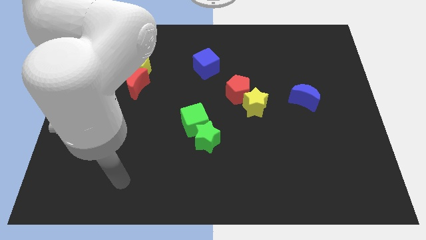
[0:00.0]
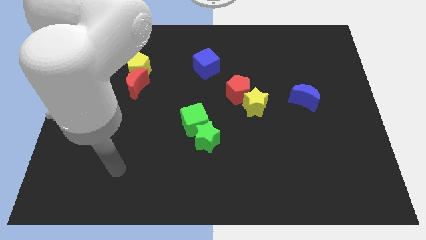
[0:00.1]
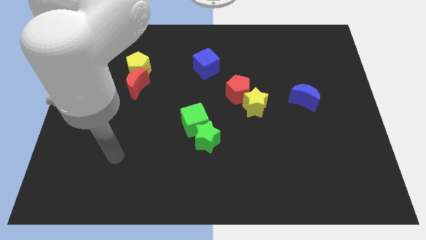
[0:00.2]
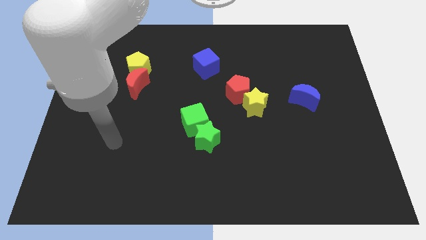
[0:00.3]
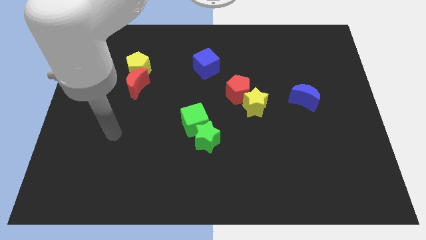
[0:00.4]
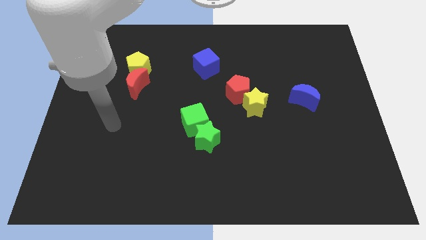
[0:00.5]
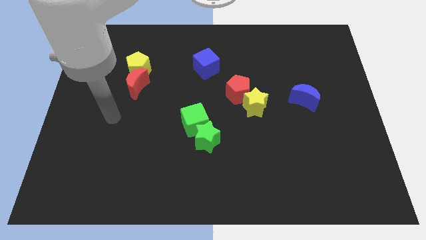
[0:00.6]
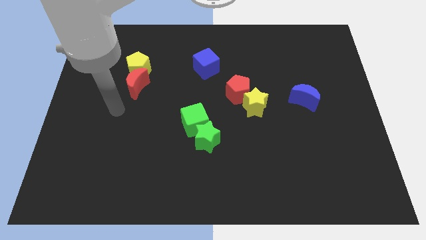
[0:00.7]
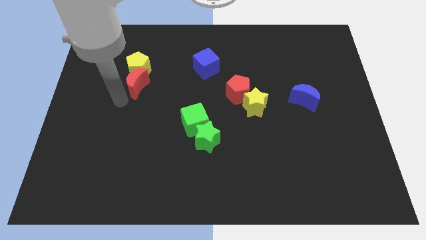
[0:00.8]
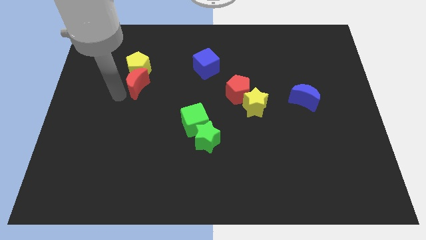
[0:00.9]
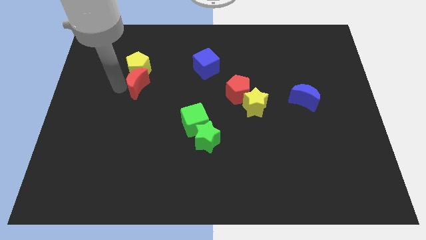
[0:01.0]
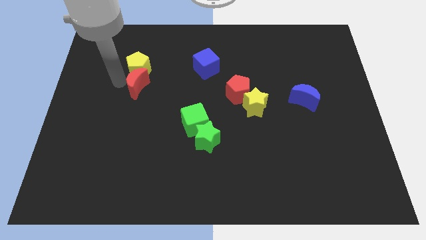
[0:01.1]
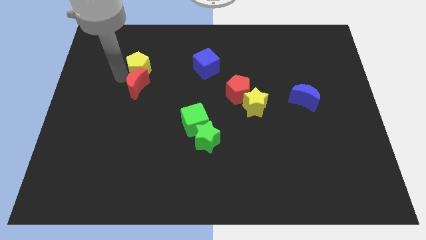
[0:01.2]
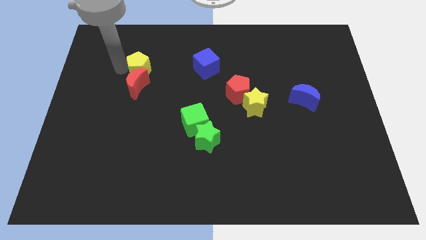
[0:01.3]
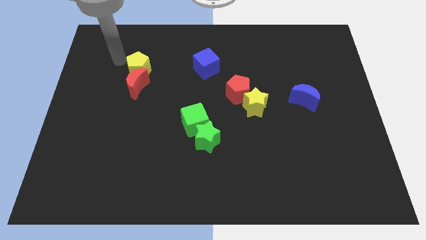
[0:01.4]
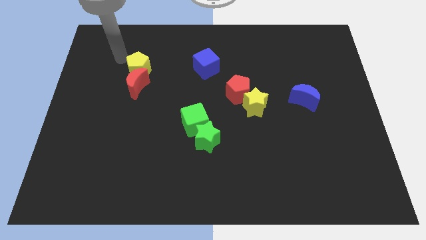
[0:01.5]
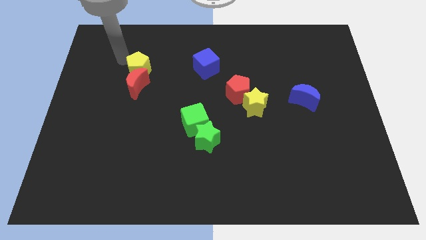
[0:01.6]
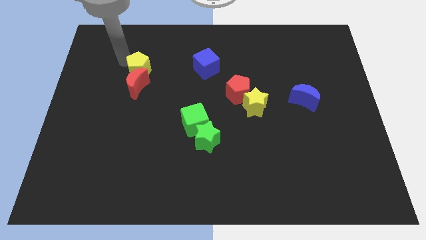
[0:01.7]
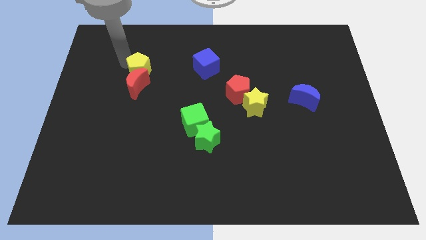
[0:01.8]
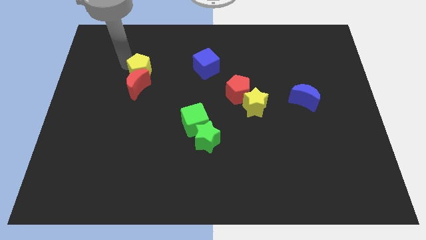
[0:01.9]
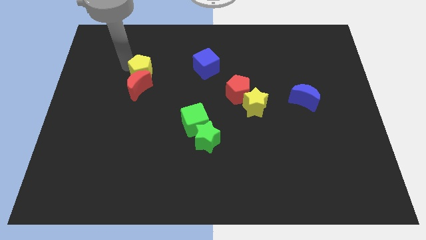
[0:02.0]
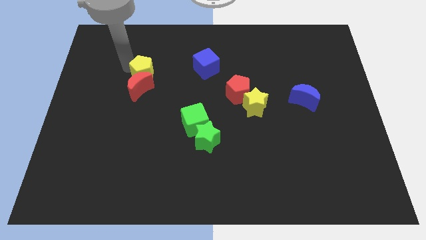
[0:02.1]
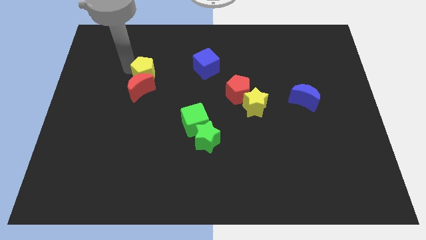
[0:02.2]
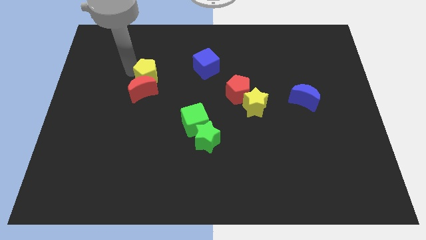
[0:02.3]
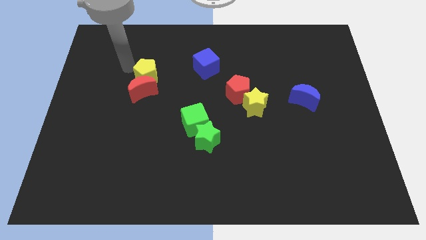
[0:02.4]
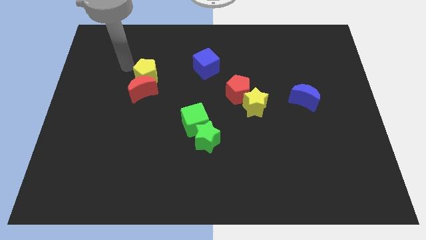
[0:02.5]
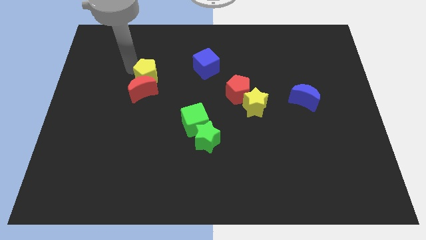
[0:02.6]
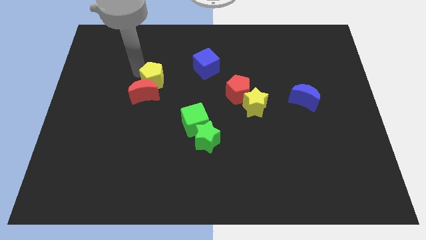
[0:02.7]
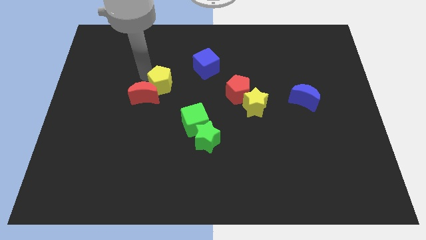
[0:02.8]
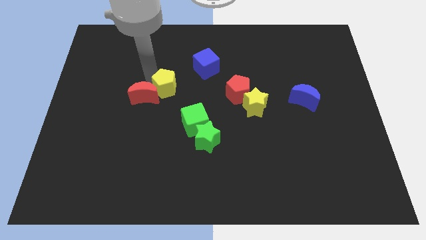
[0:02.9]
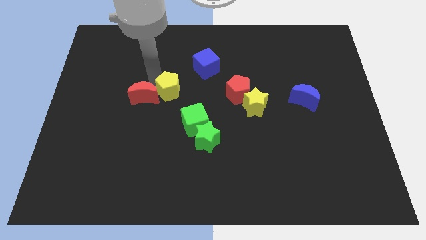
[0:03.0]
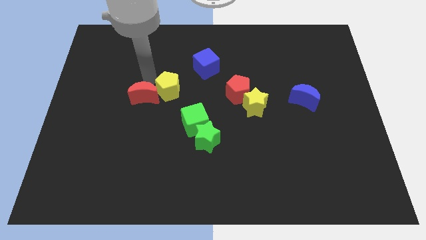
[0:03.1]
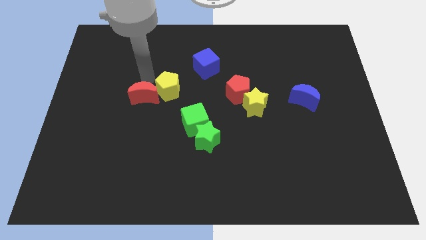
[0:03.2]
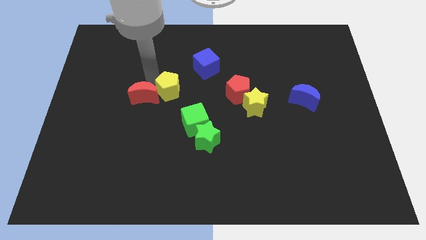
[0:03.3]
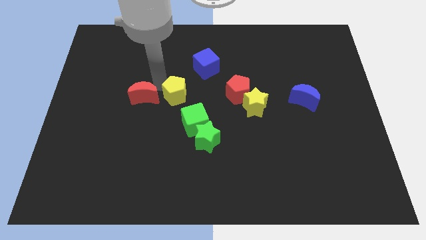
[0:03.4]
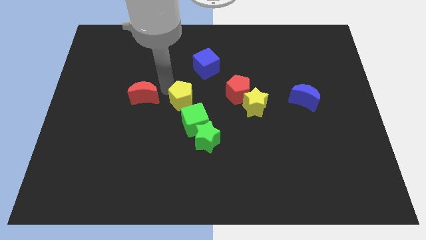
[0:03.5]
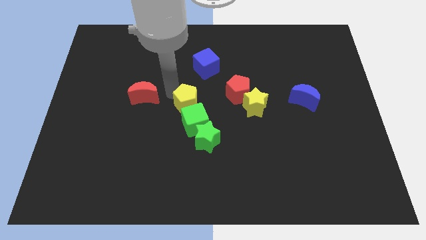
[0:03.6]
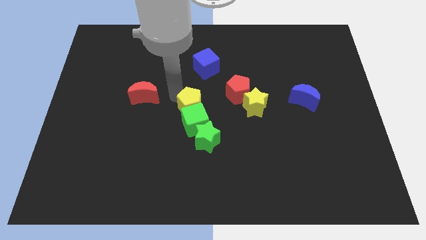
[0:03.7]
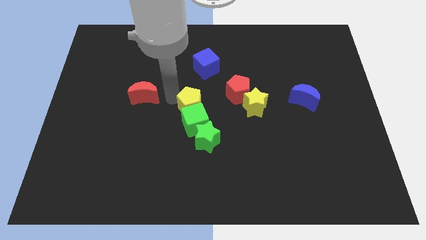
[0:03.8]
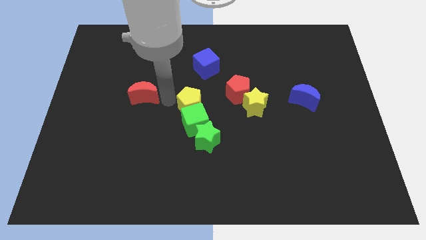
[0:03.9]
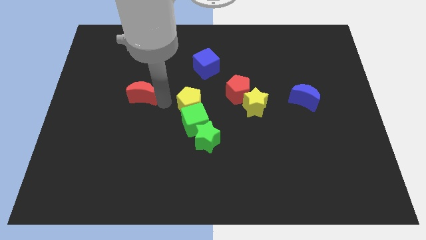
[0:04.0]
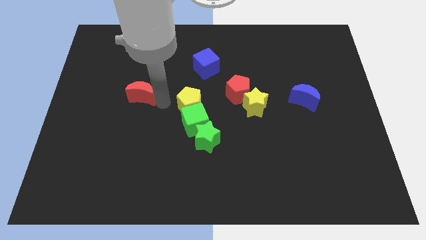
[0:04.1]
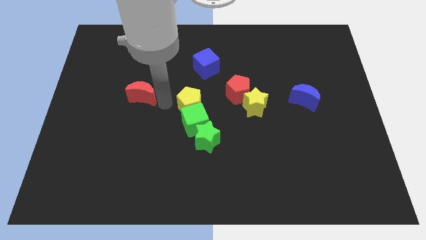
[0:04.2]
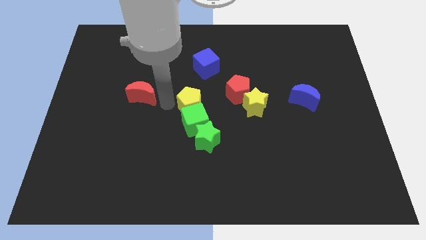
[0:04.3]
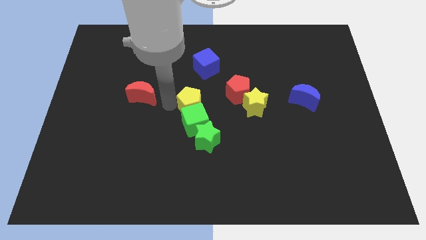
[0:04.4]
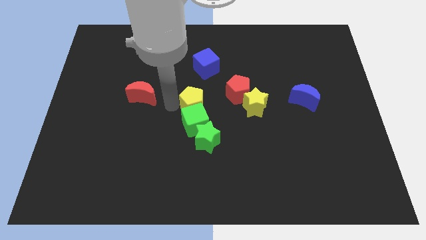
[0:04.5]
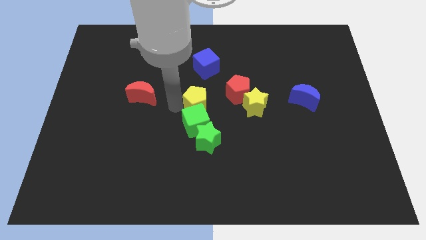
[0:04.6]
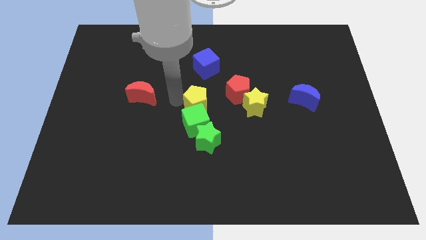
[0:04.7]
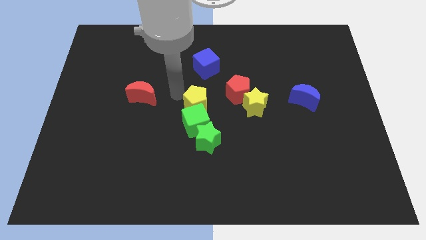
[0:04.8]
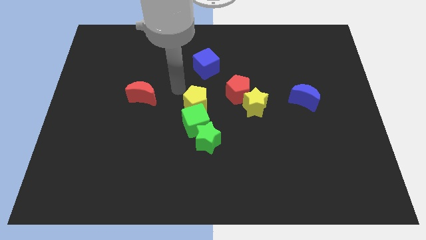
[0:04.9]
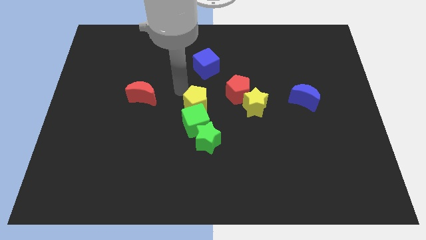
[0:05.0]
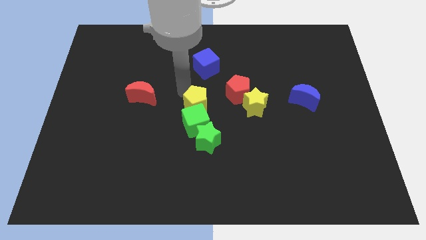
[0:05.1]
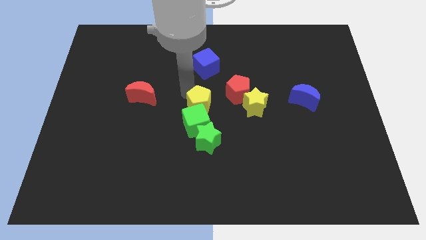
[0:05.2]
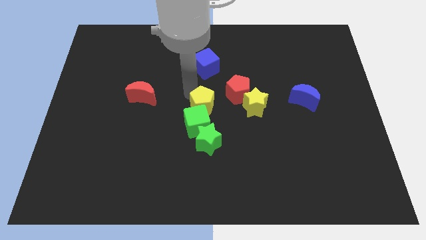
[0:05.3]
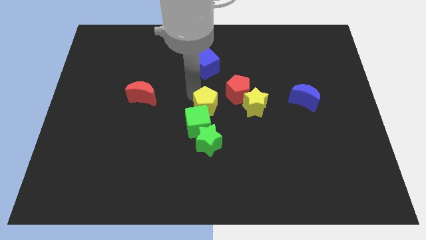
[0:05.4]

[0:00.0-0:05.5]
push the yellow pentagon down and then to the right

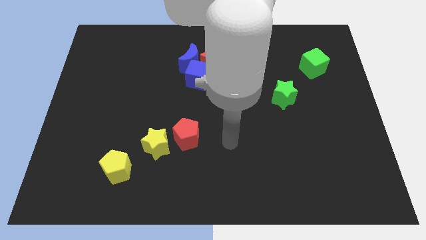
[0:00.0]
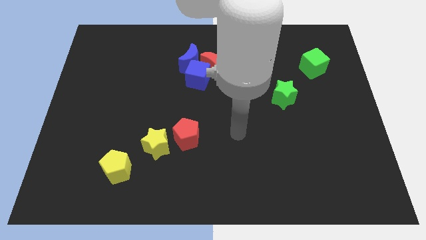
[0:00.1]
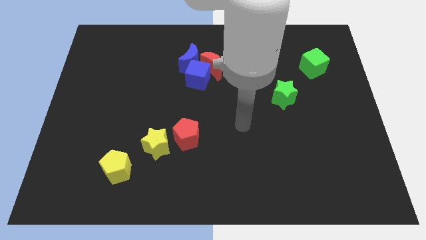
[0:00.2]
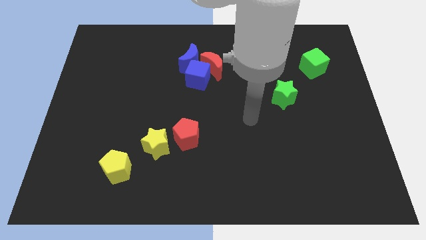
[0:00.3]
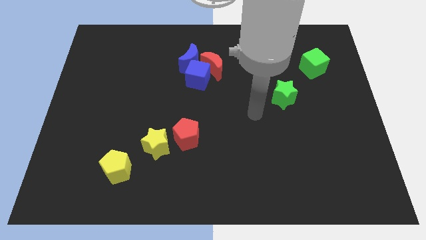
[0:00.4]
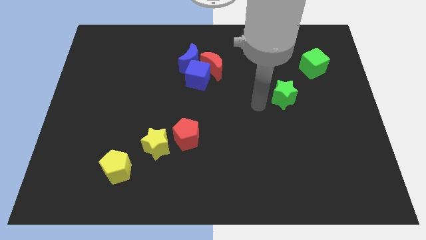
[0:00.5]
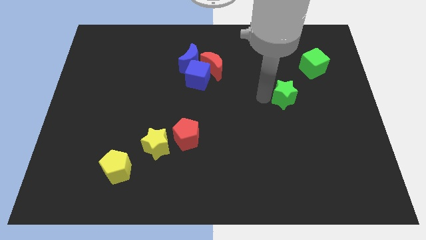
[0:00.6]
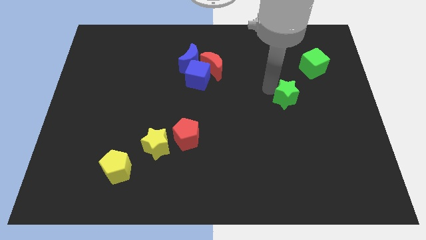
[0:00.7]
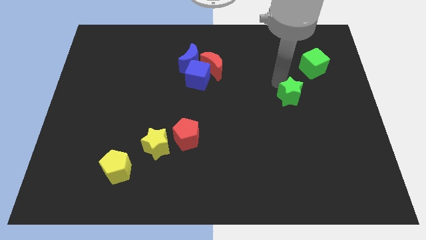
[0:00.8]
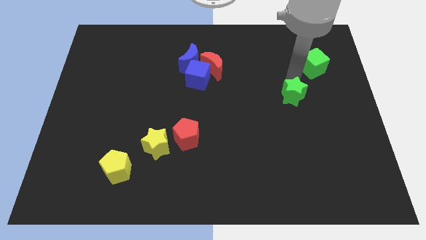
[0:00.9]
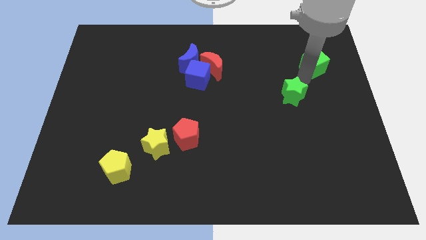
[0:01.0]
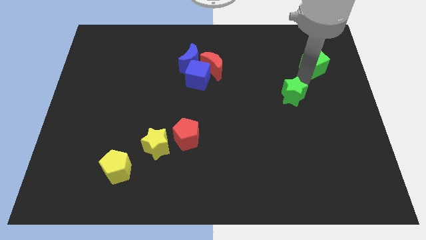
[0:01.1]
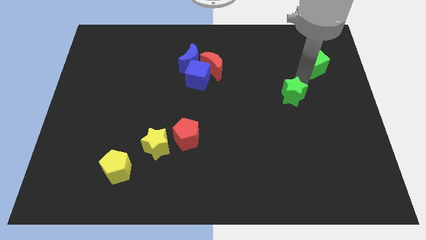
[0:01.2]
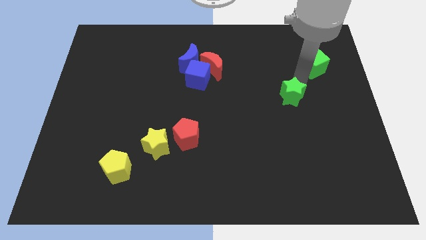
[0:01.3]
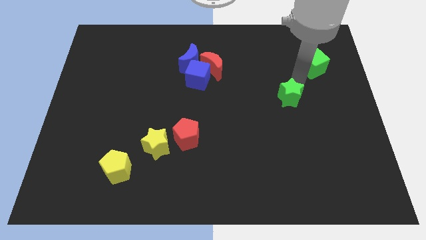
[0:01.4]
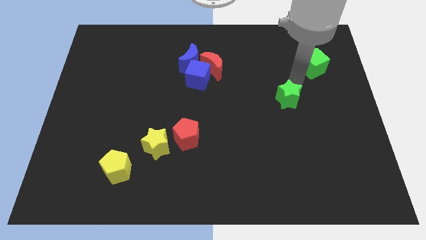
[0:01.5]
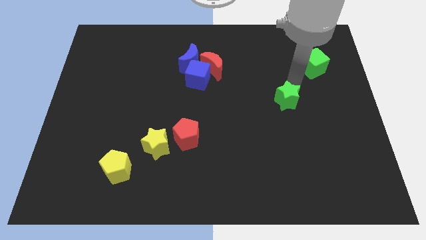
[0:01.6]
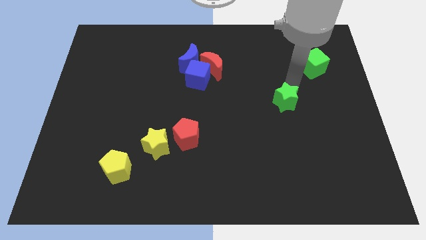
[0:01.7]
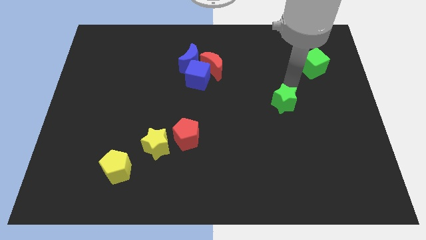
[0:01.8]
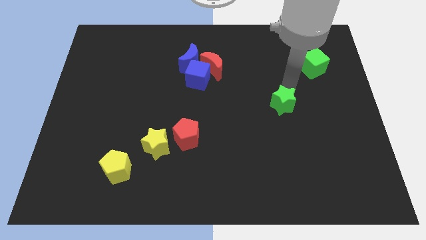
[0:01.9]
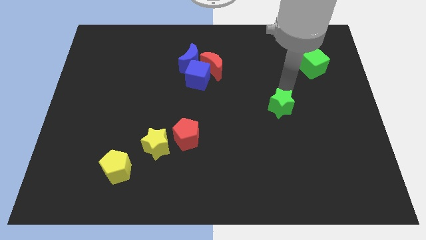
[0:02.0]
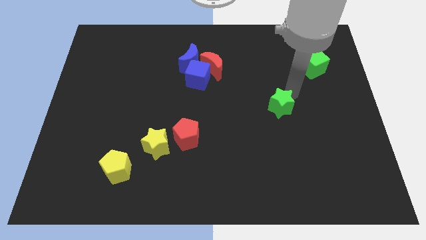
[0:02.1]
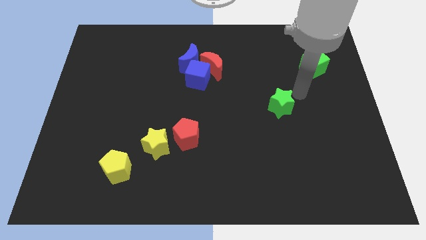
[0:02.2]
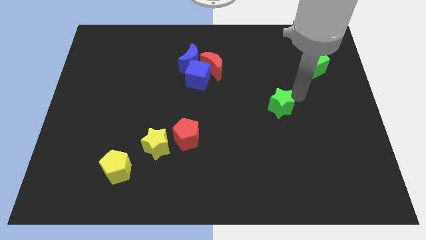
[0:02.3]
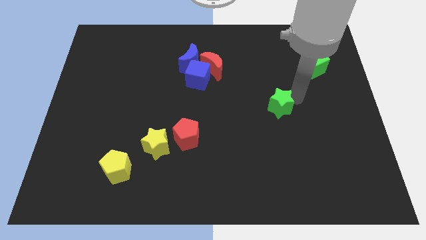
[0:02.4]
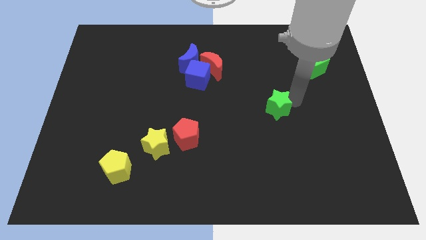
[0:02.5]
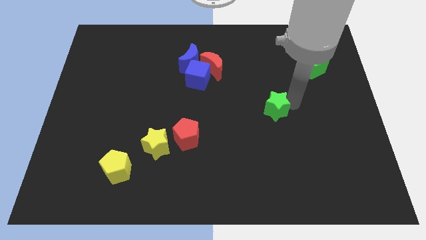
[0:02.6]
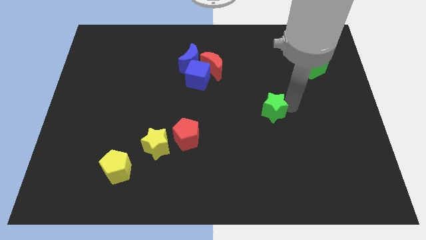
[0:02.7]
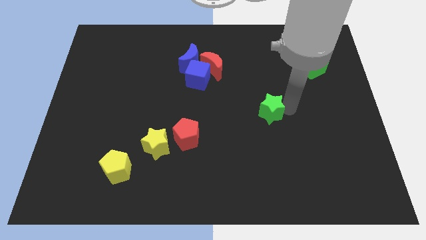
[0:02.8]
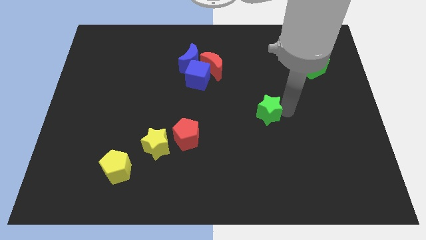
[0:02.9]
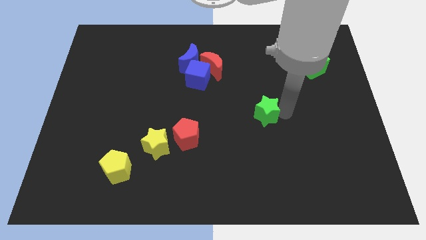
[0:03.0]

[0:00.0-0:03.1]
move the green star somewhat diagonally downwards and left
